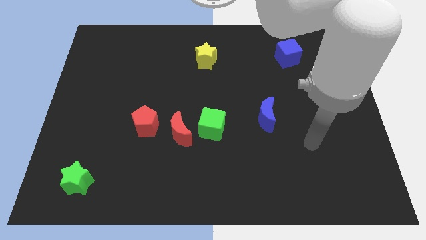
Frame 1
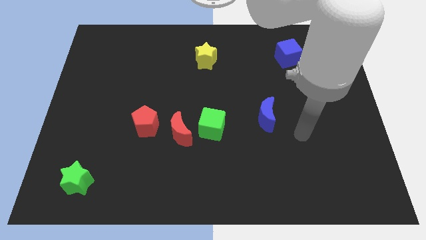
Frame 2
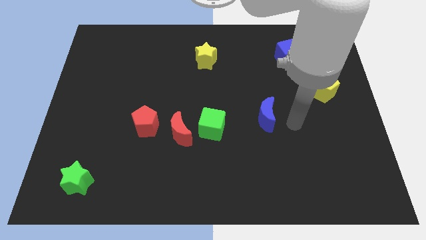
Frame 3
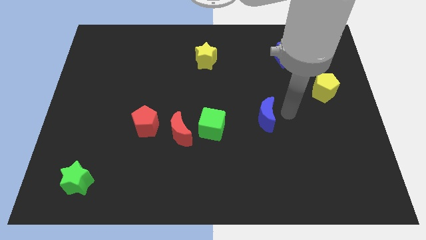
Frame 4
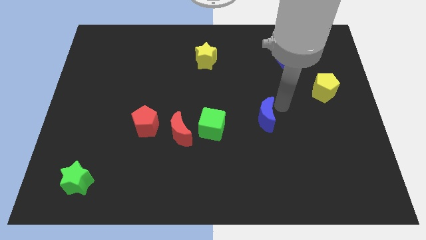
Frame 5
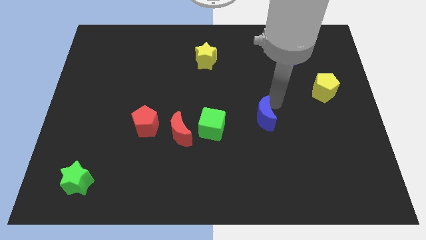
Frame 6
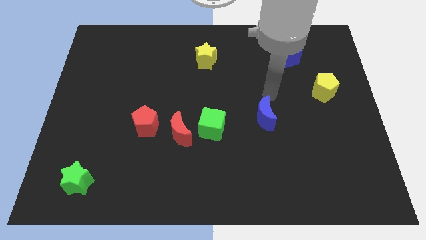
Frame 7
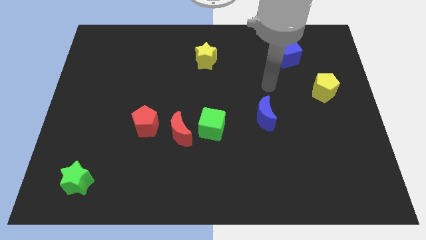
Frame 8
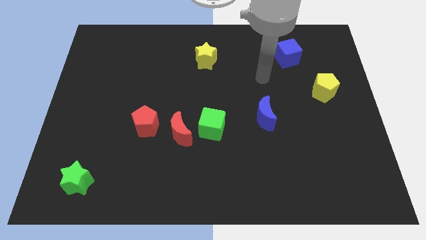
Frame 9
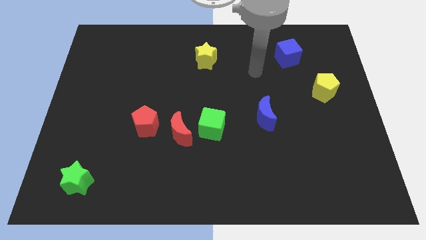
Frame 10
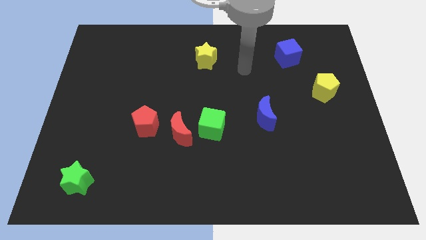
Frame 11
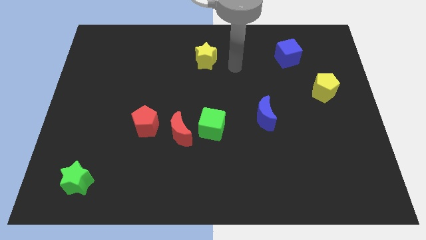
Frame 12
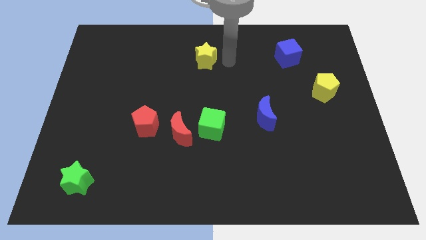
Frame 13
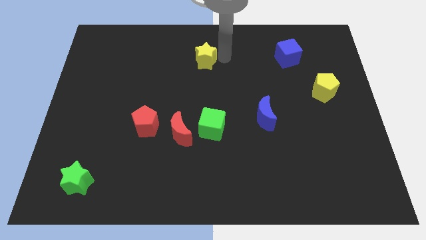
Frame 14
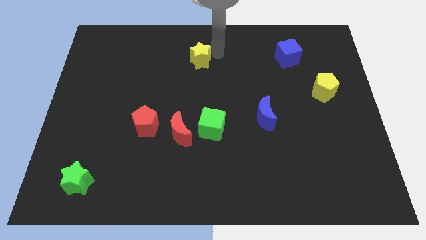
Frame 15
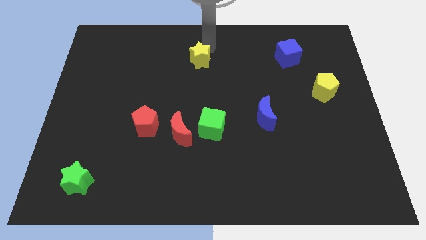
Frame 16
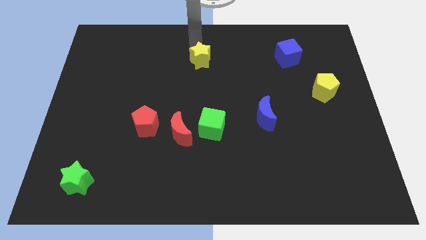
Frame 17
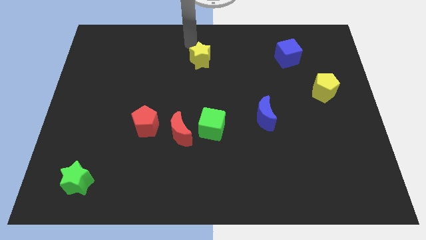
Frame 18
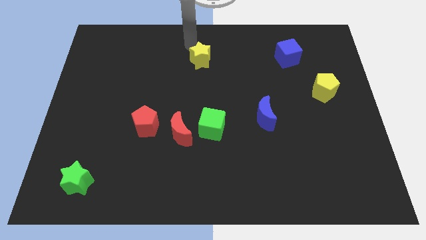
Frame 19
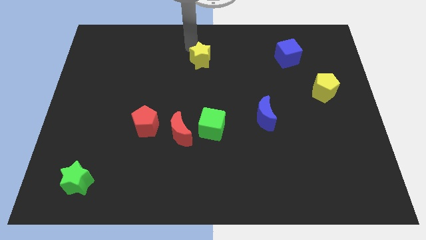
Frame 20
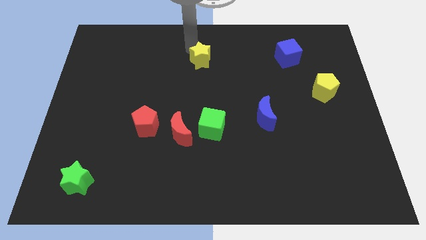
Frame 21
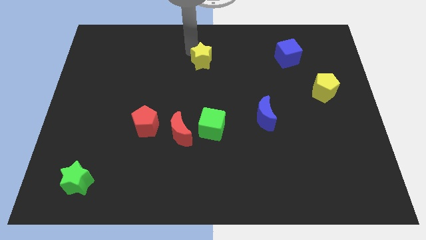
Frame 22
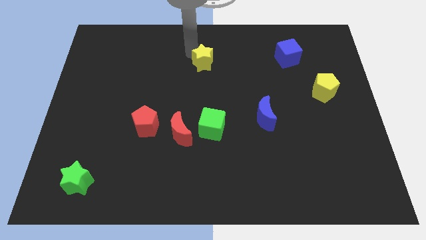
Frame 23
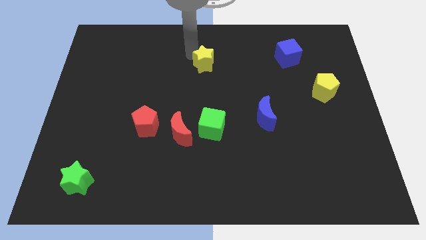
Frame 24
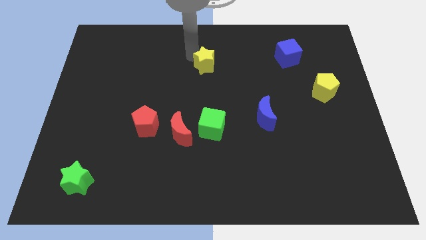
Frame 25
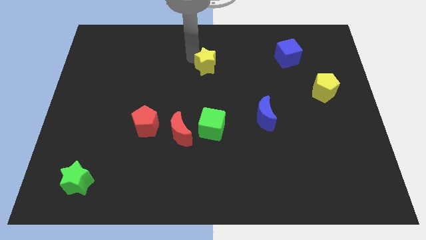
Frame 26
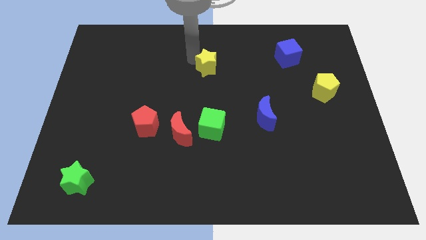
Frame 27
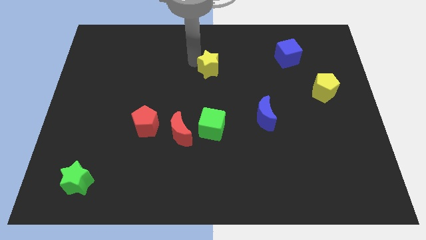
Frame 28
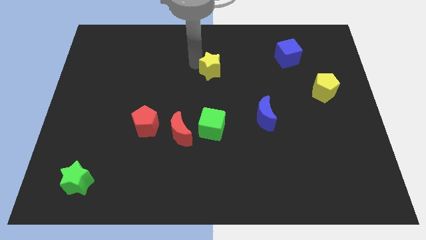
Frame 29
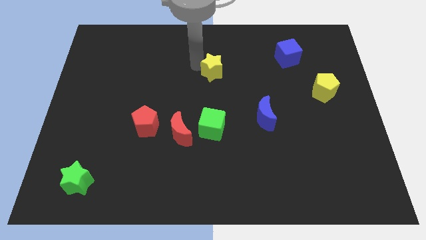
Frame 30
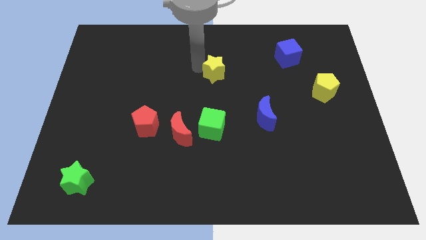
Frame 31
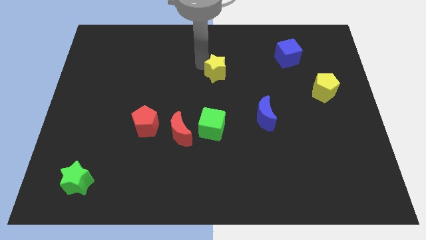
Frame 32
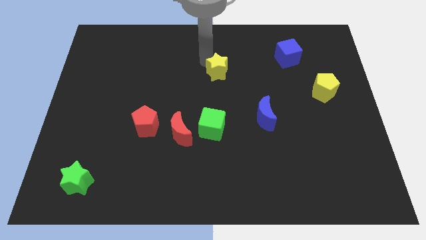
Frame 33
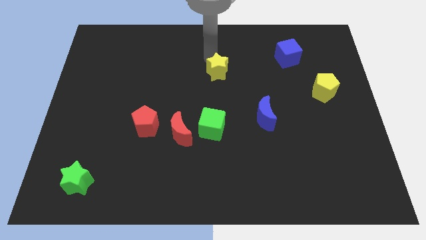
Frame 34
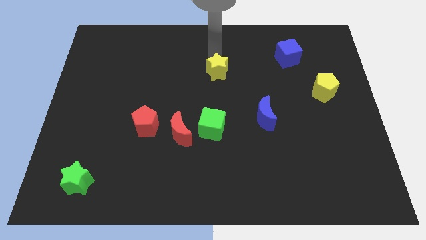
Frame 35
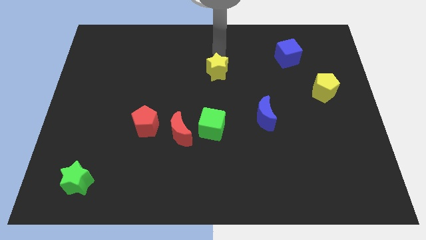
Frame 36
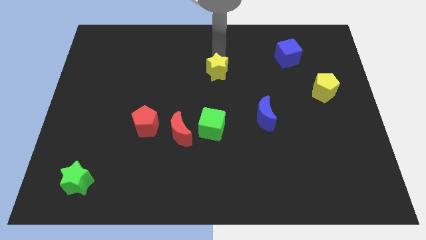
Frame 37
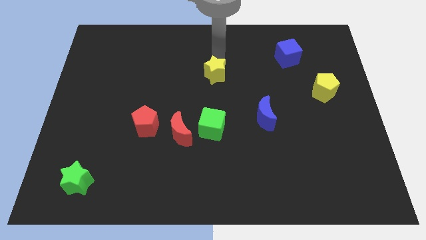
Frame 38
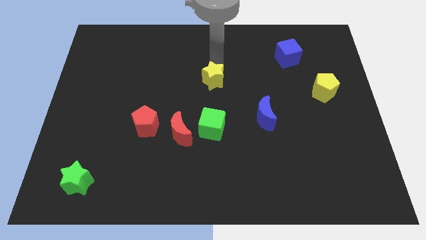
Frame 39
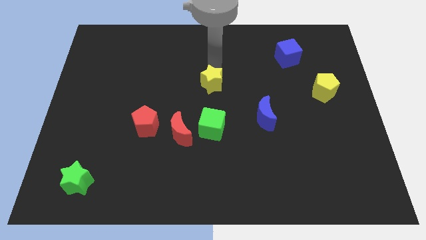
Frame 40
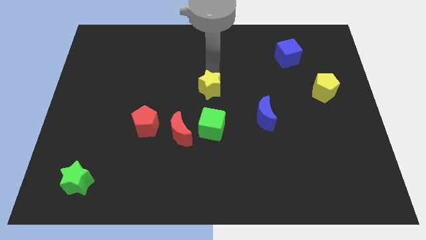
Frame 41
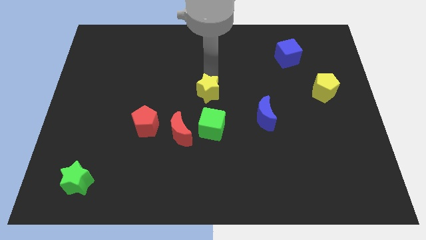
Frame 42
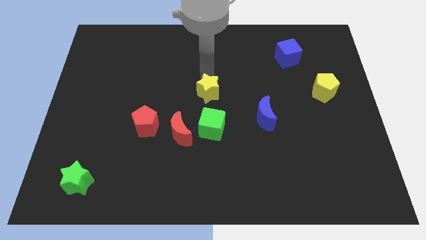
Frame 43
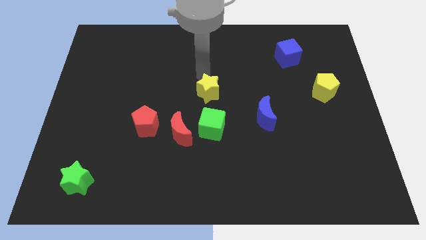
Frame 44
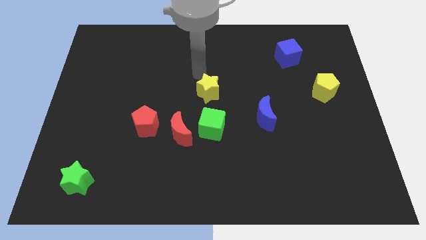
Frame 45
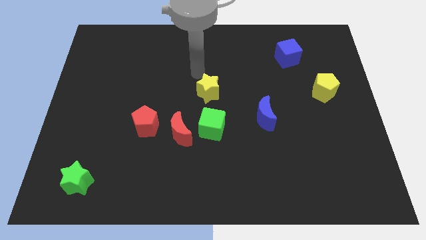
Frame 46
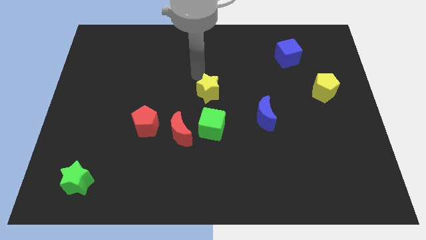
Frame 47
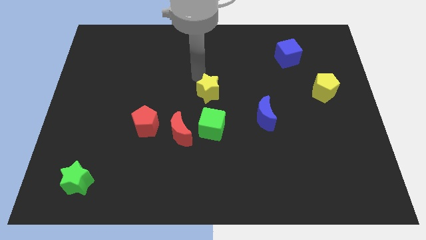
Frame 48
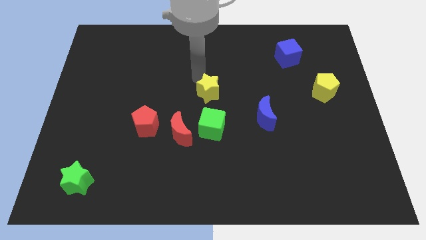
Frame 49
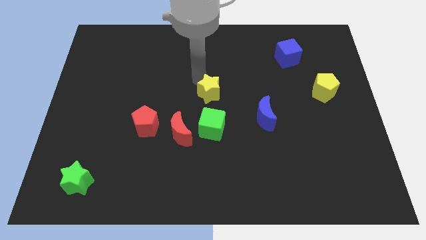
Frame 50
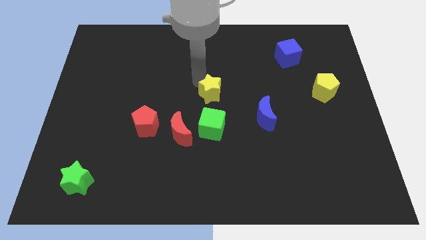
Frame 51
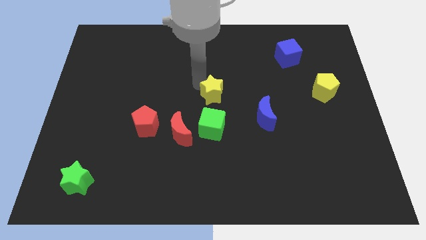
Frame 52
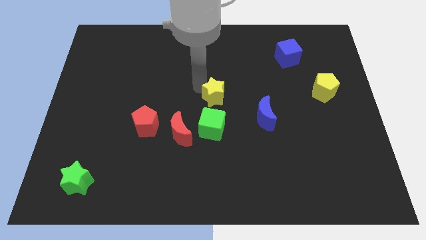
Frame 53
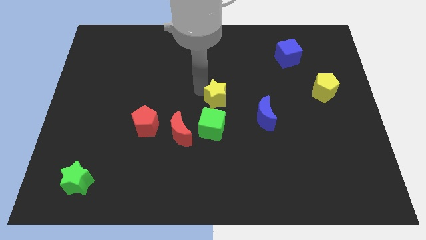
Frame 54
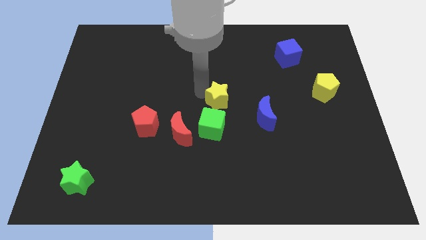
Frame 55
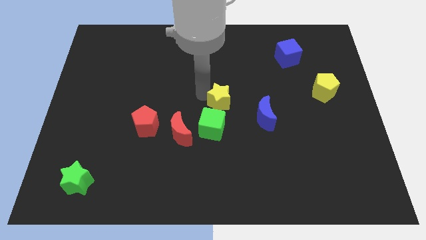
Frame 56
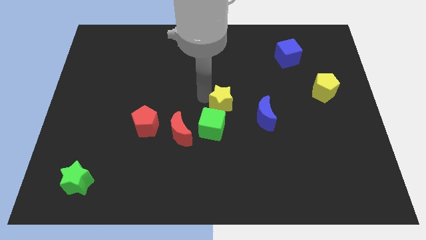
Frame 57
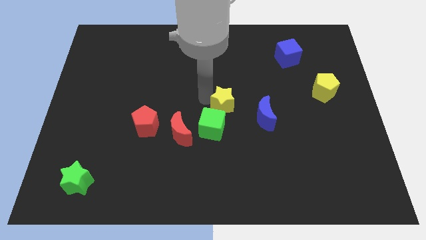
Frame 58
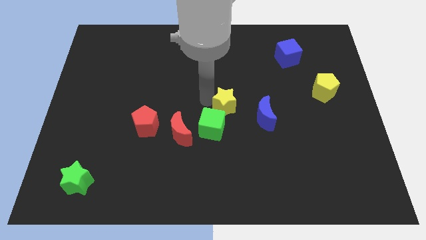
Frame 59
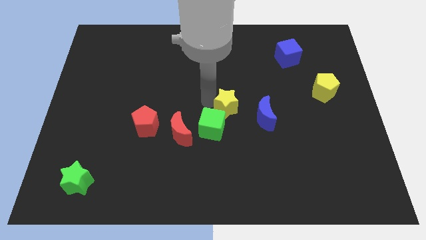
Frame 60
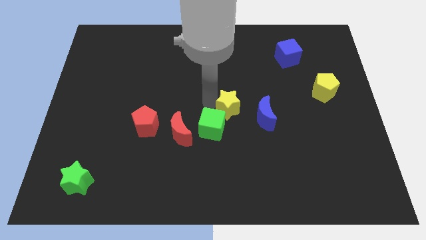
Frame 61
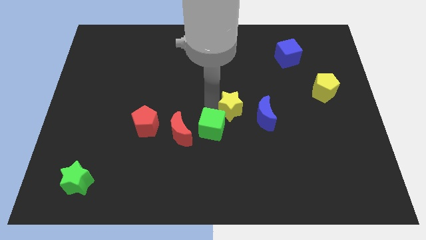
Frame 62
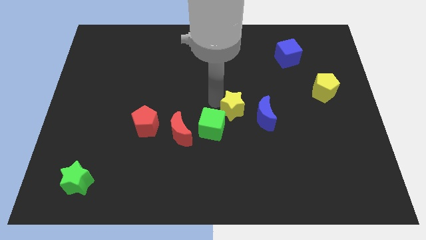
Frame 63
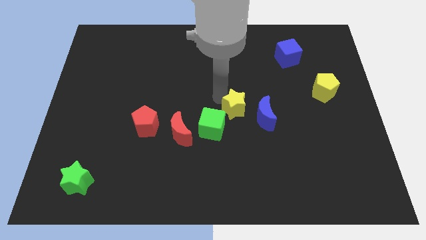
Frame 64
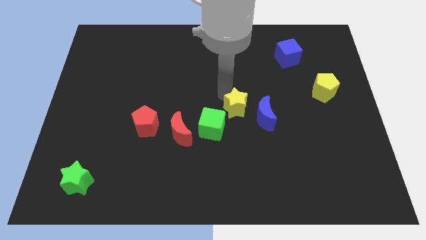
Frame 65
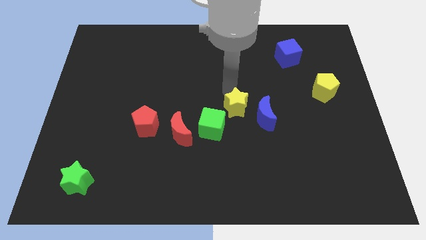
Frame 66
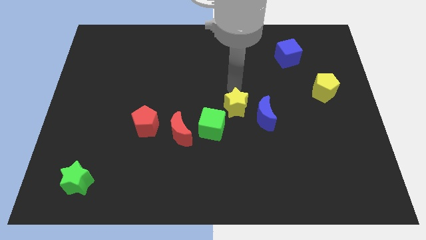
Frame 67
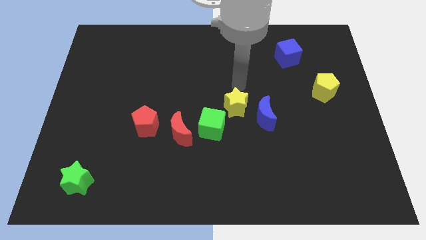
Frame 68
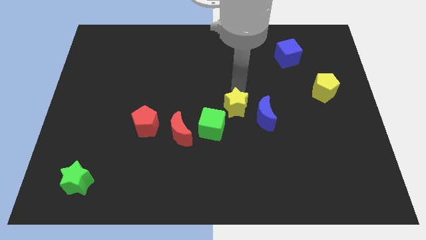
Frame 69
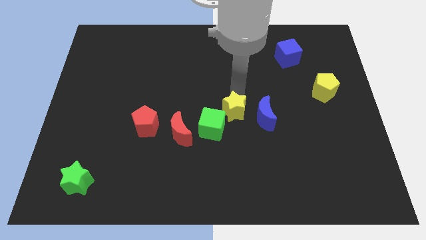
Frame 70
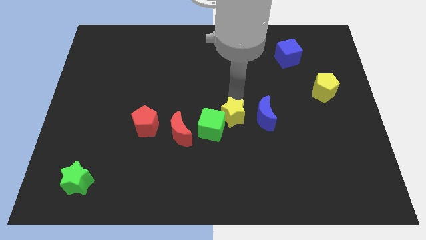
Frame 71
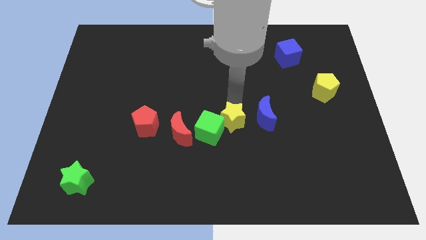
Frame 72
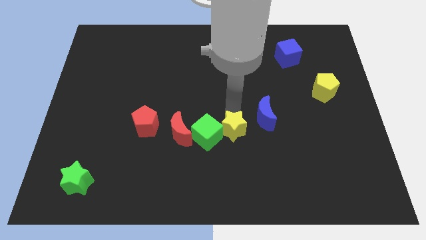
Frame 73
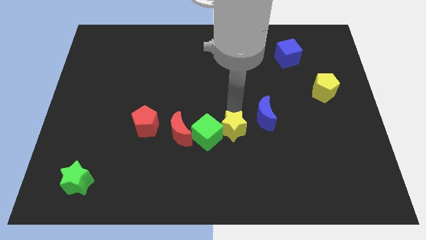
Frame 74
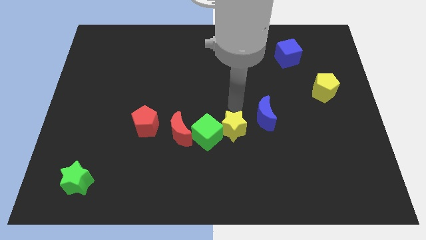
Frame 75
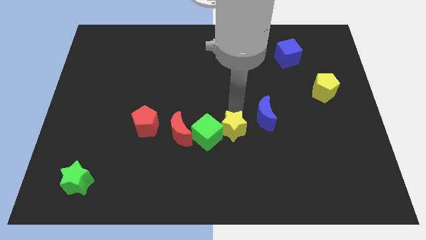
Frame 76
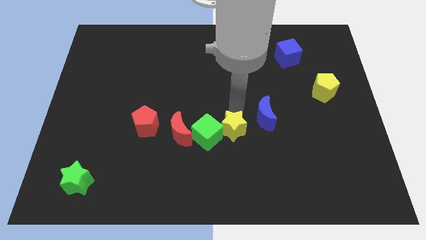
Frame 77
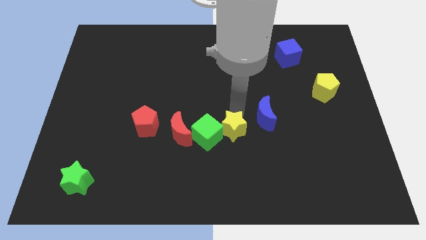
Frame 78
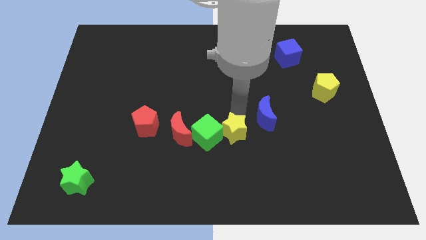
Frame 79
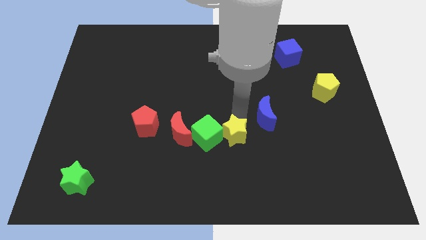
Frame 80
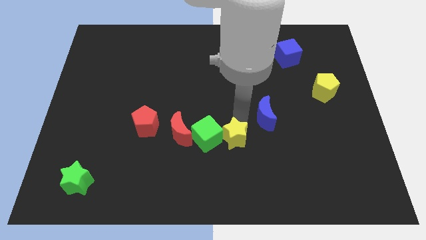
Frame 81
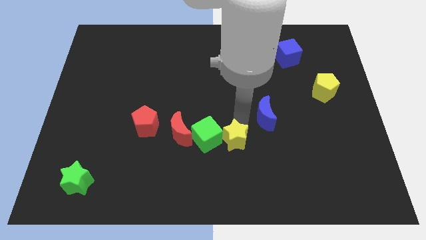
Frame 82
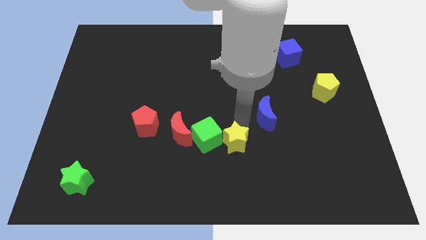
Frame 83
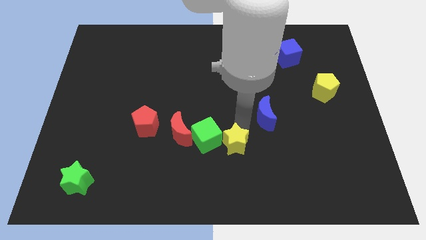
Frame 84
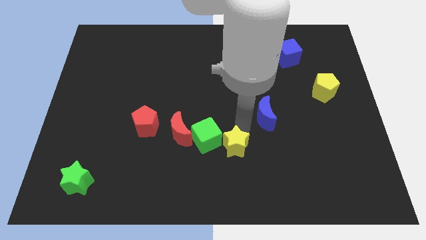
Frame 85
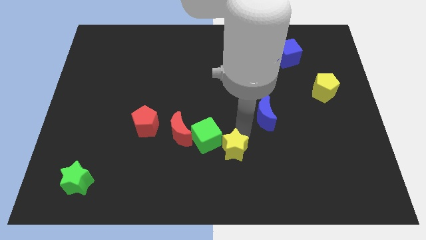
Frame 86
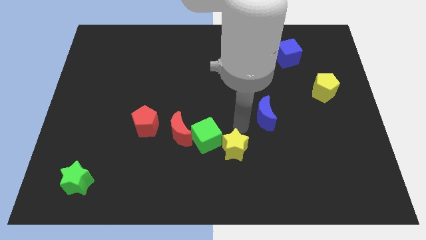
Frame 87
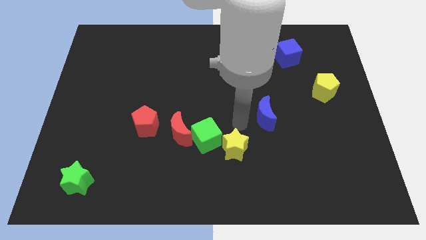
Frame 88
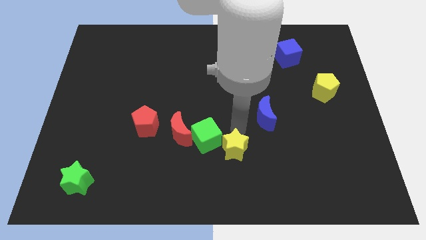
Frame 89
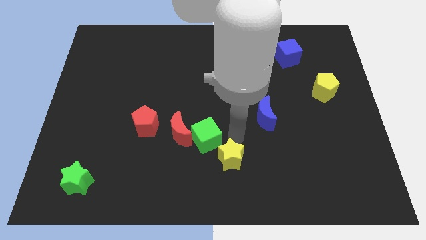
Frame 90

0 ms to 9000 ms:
push the yellow star to the bottom
